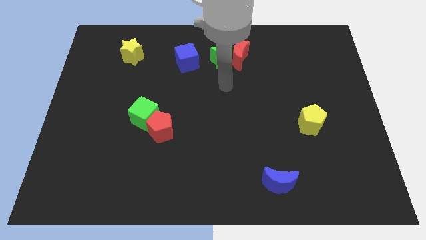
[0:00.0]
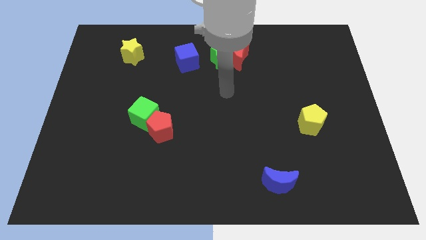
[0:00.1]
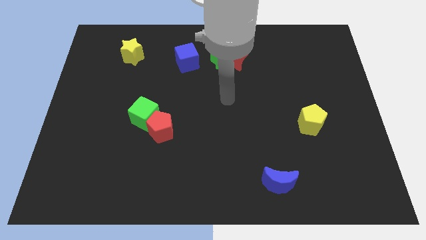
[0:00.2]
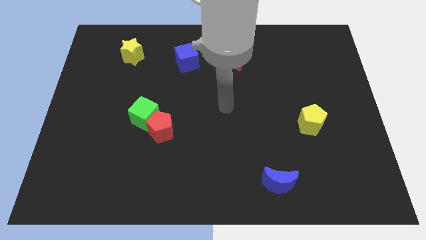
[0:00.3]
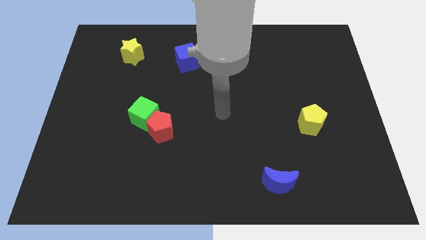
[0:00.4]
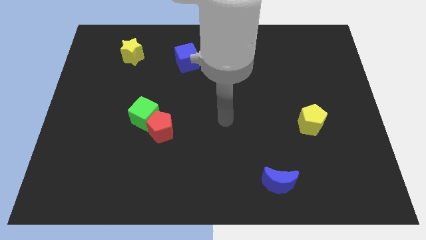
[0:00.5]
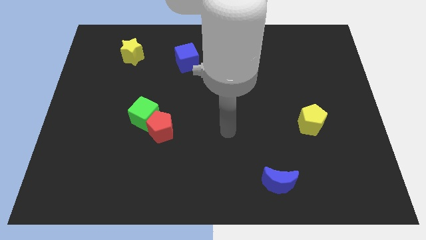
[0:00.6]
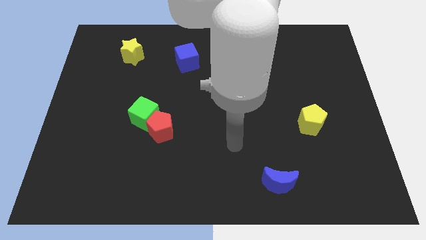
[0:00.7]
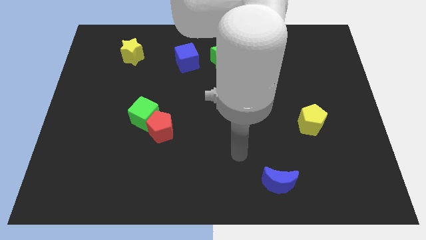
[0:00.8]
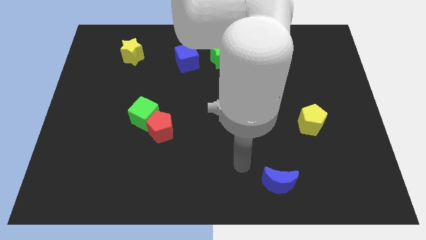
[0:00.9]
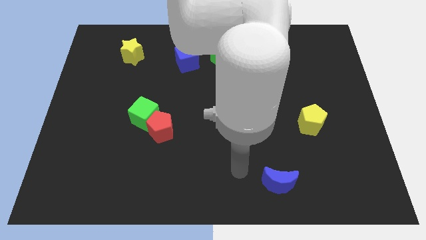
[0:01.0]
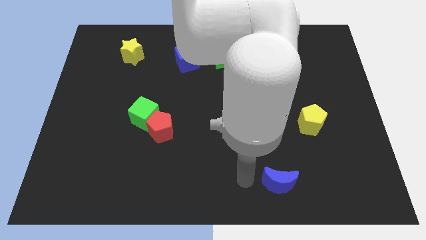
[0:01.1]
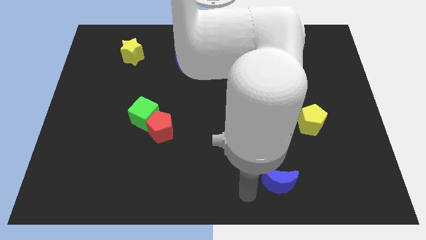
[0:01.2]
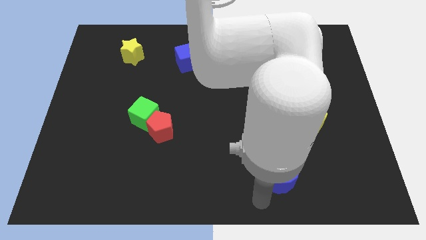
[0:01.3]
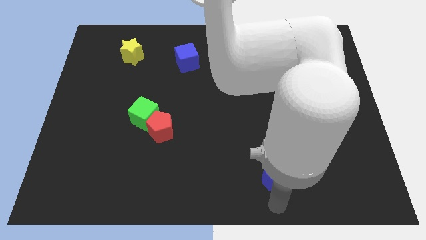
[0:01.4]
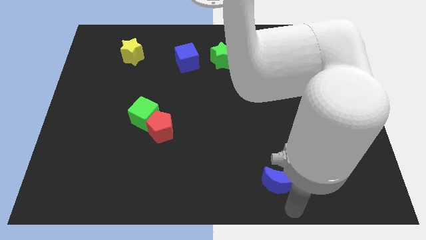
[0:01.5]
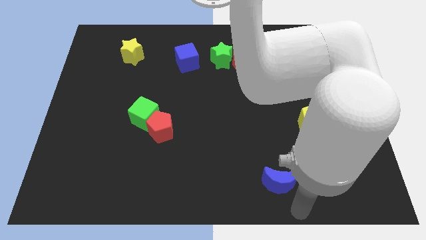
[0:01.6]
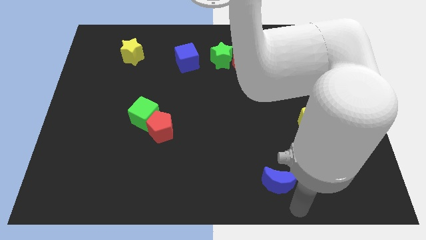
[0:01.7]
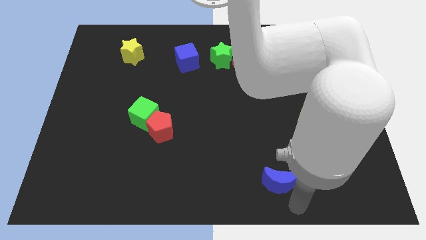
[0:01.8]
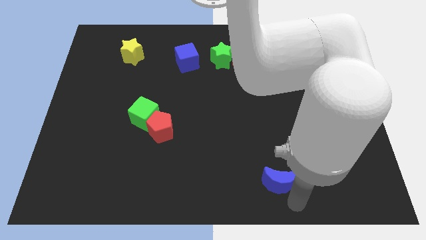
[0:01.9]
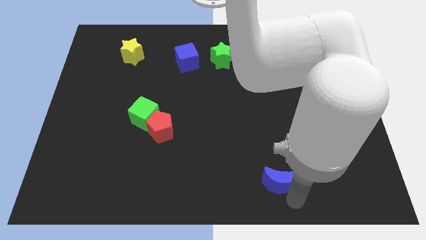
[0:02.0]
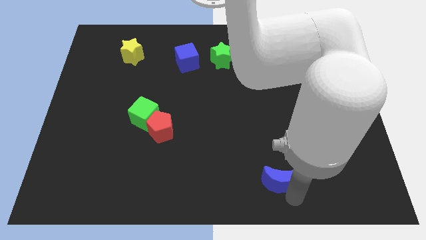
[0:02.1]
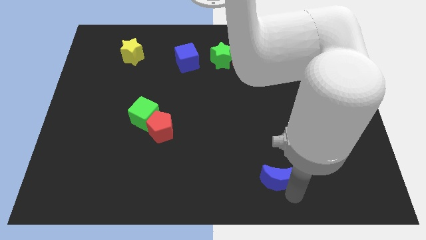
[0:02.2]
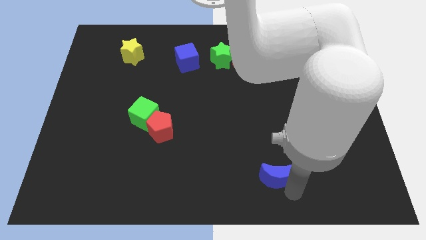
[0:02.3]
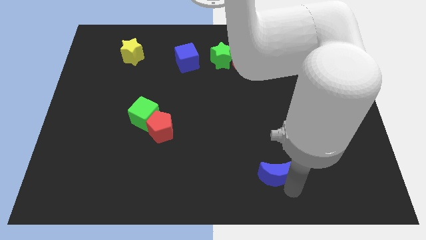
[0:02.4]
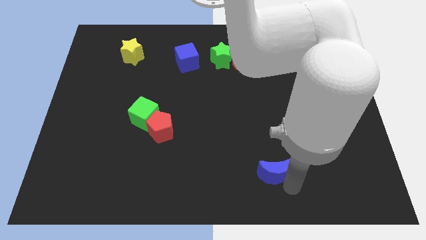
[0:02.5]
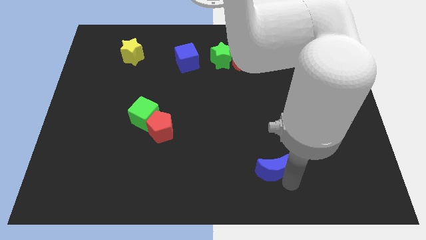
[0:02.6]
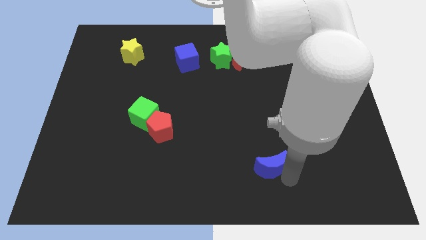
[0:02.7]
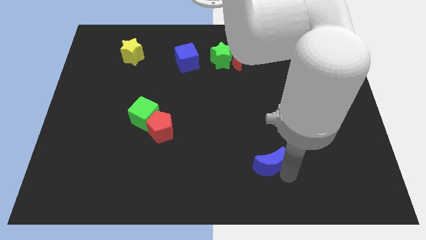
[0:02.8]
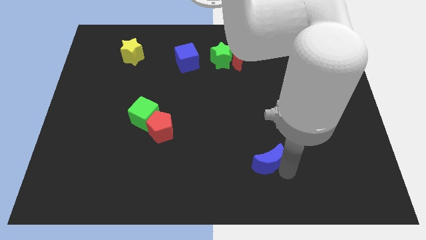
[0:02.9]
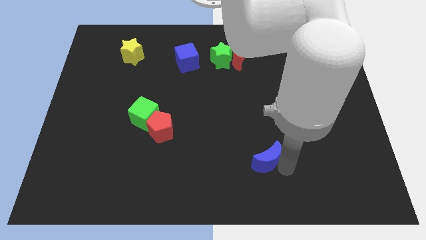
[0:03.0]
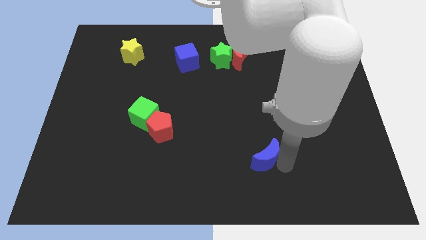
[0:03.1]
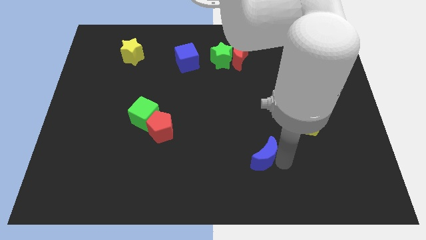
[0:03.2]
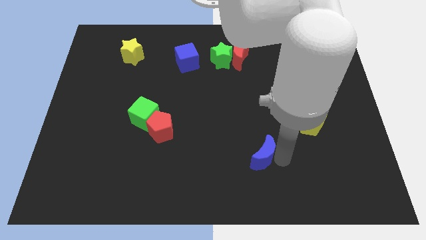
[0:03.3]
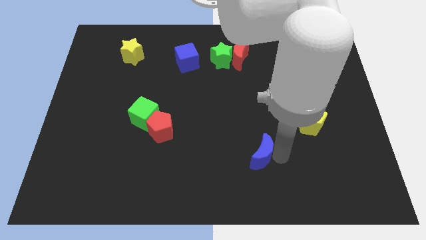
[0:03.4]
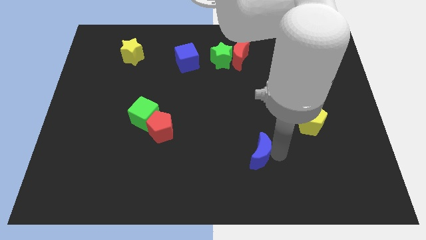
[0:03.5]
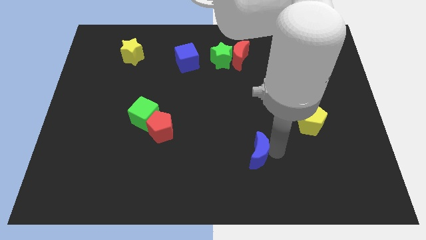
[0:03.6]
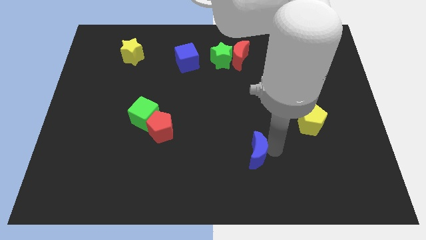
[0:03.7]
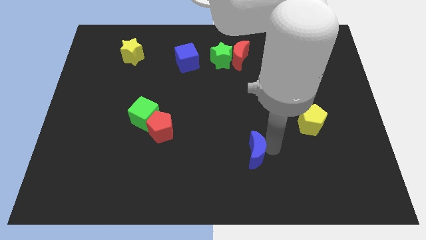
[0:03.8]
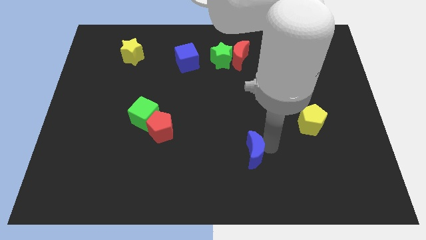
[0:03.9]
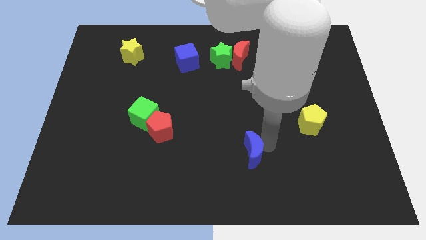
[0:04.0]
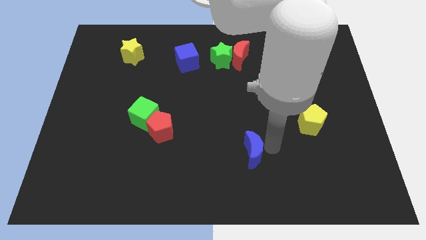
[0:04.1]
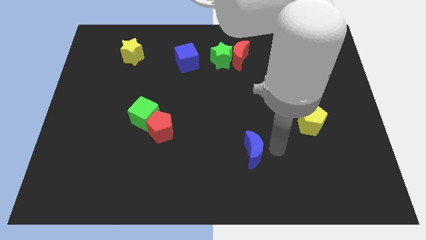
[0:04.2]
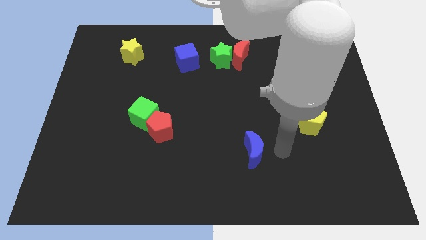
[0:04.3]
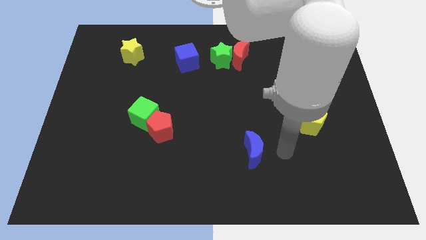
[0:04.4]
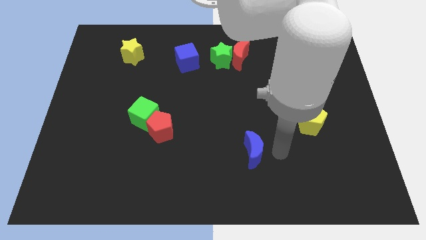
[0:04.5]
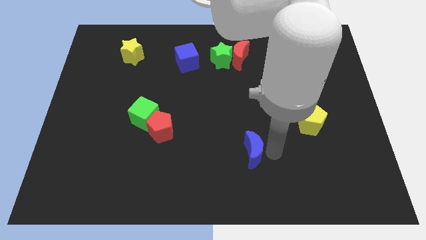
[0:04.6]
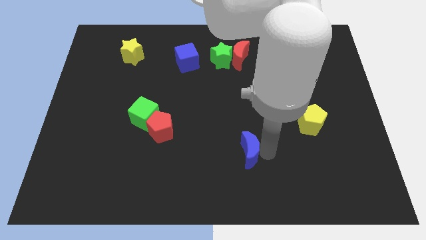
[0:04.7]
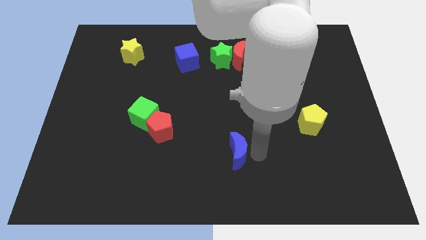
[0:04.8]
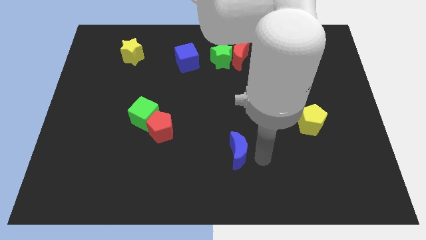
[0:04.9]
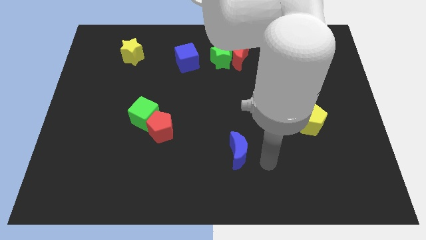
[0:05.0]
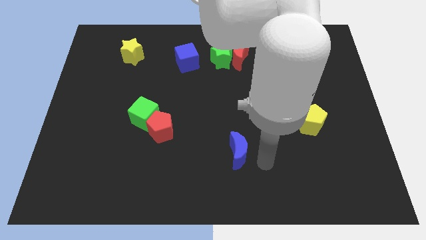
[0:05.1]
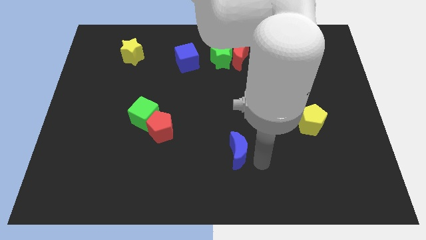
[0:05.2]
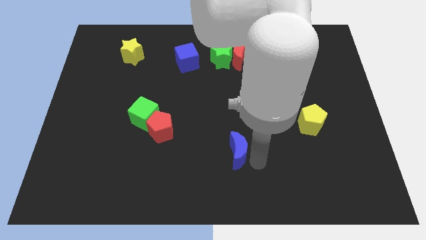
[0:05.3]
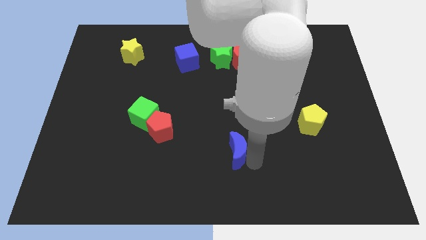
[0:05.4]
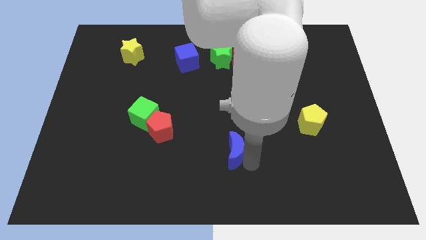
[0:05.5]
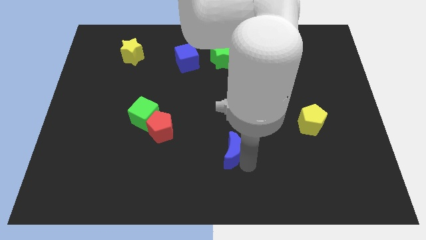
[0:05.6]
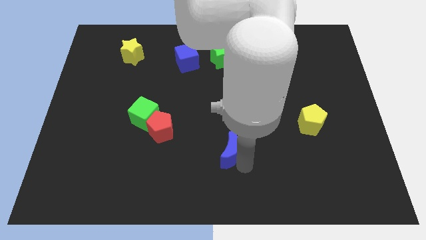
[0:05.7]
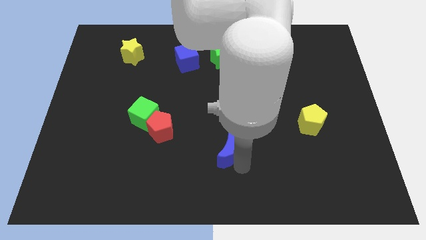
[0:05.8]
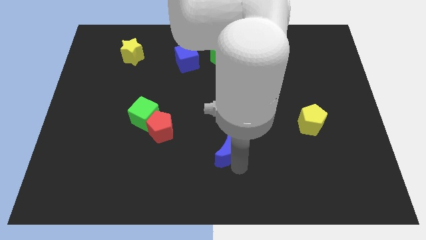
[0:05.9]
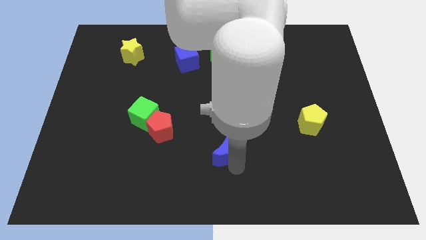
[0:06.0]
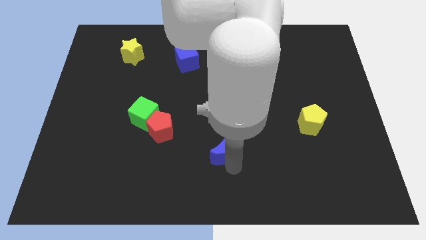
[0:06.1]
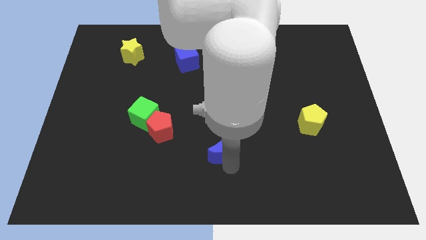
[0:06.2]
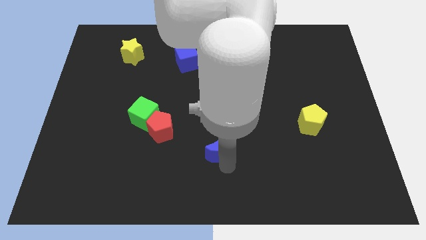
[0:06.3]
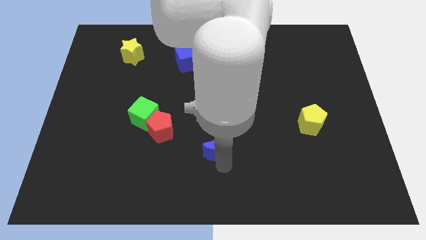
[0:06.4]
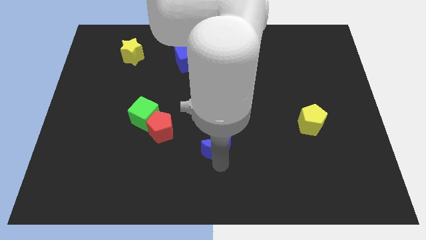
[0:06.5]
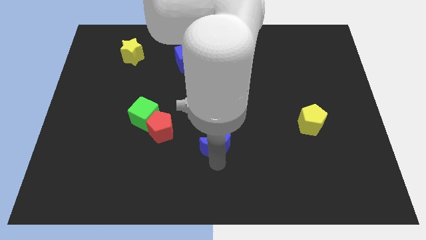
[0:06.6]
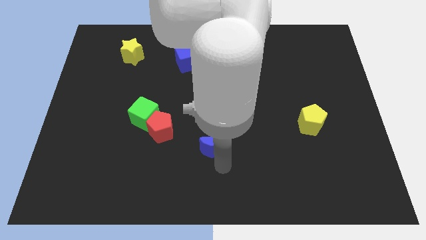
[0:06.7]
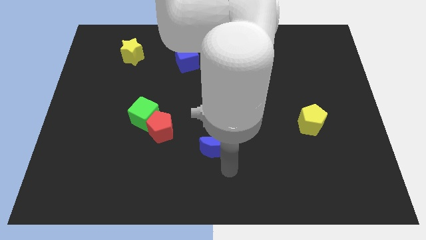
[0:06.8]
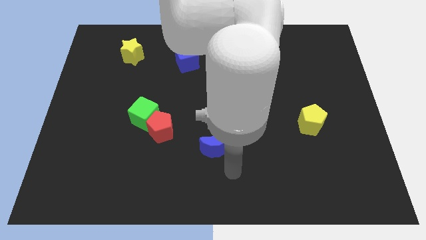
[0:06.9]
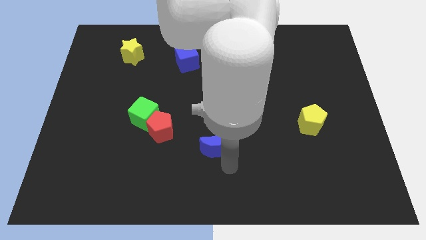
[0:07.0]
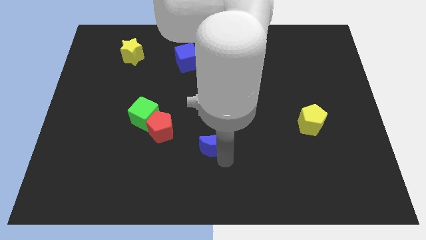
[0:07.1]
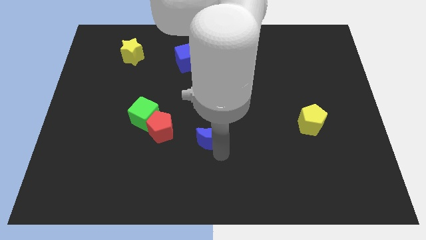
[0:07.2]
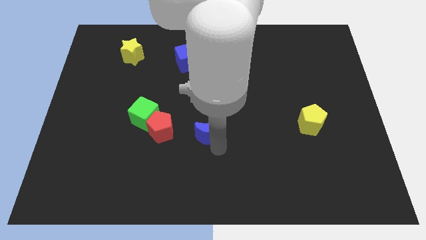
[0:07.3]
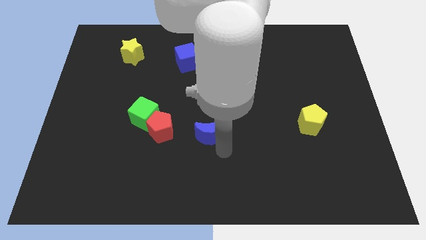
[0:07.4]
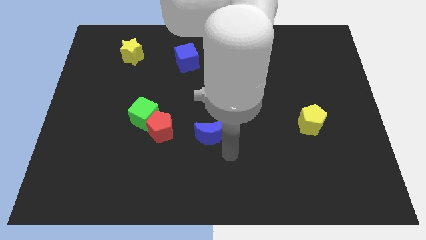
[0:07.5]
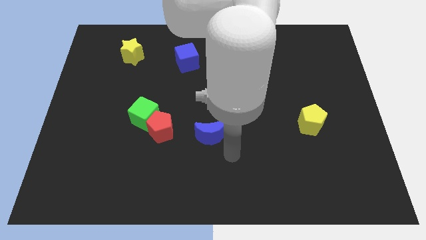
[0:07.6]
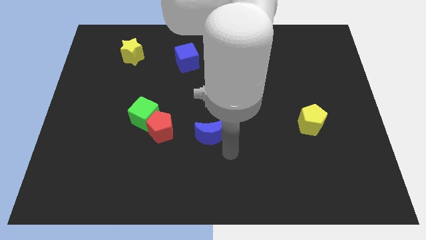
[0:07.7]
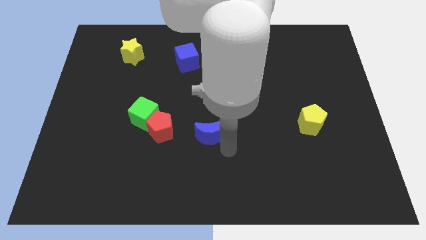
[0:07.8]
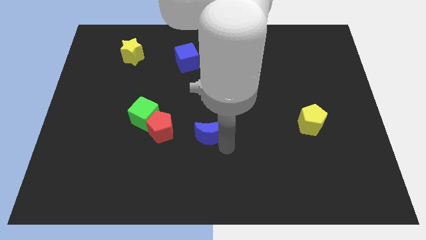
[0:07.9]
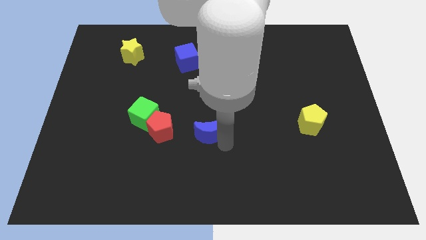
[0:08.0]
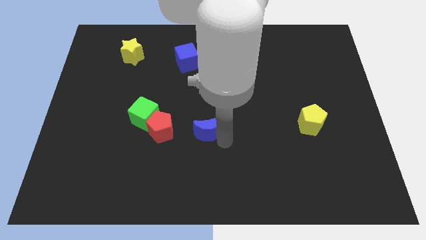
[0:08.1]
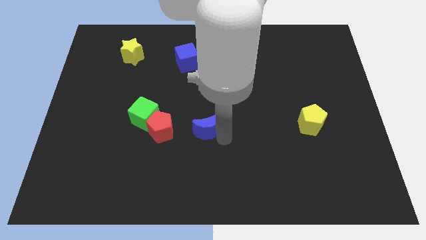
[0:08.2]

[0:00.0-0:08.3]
slide the blue moon right of the green cube
